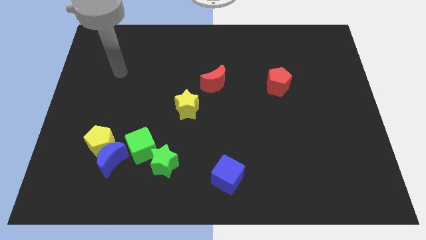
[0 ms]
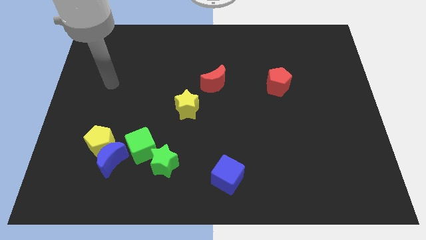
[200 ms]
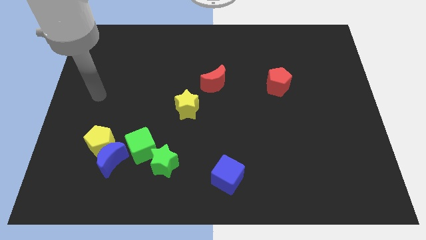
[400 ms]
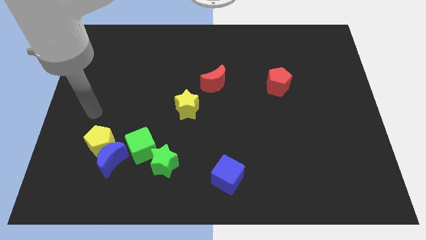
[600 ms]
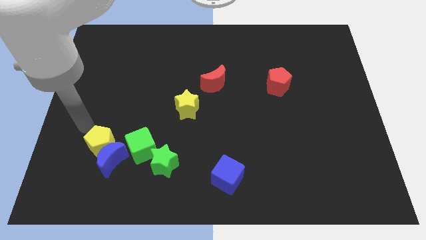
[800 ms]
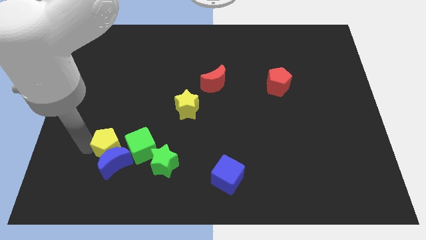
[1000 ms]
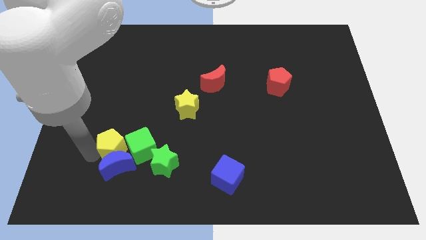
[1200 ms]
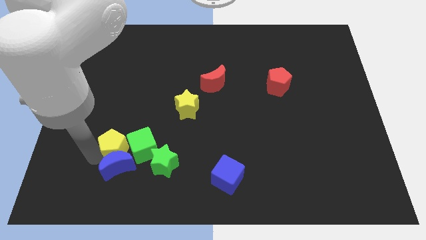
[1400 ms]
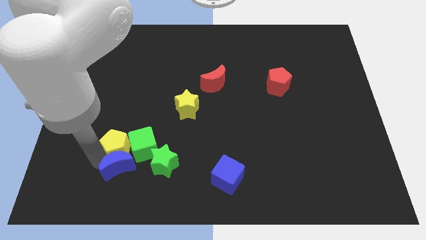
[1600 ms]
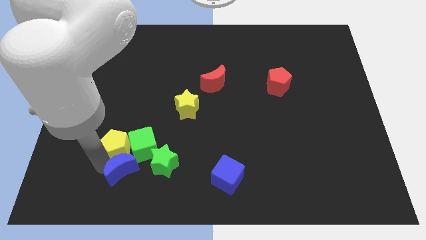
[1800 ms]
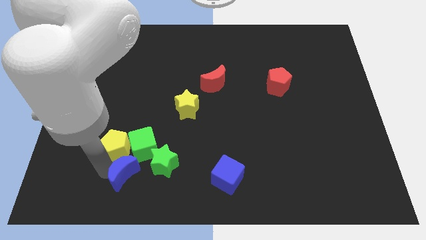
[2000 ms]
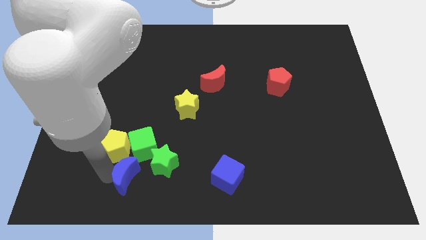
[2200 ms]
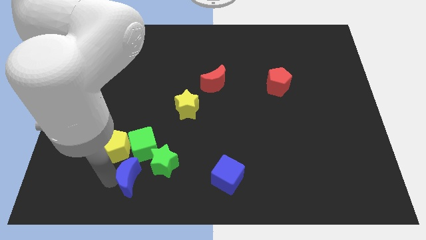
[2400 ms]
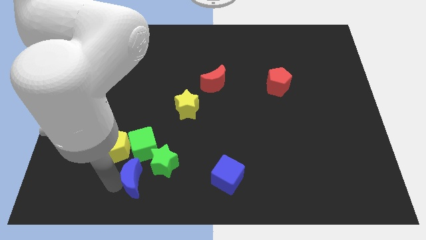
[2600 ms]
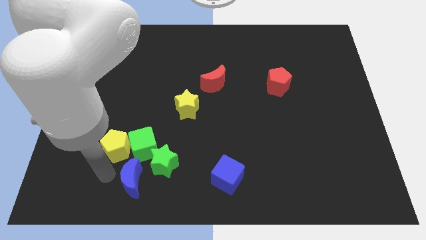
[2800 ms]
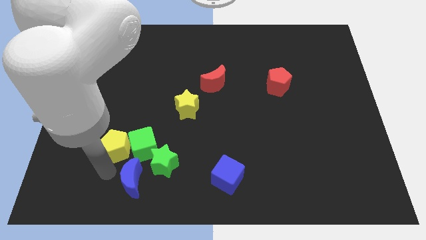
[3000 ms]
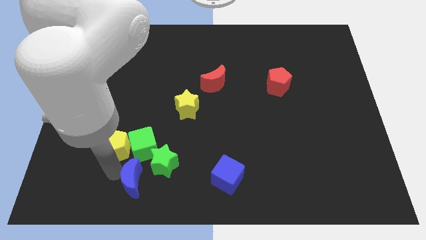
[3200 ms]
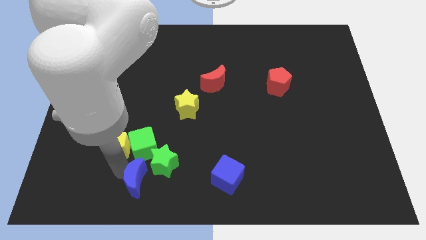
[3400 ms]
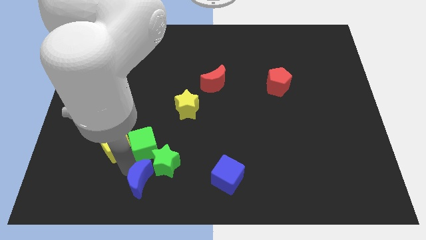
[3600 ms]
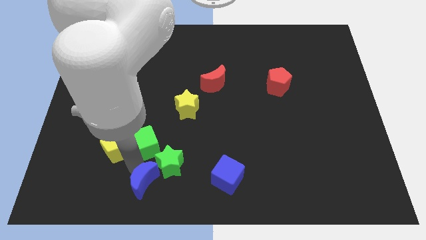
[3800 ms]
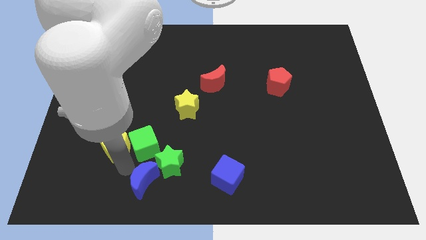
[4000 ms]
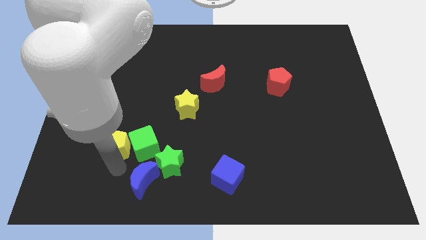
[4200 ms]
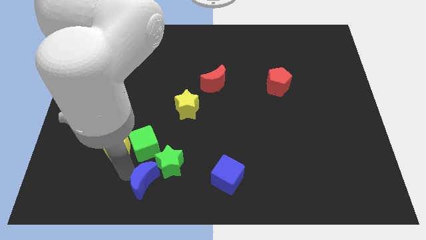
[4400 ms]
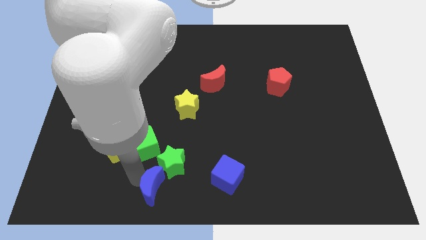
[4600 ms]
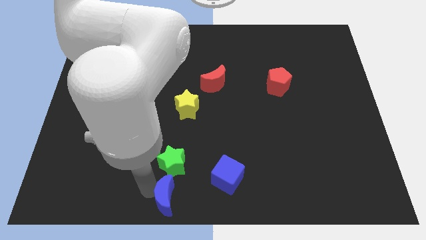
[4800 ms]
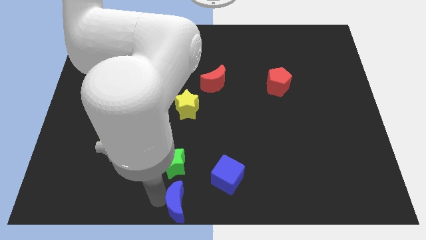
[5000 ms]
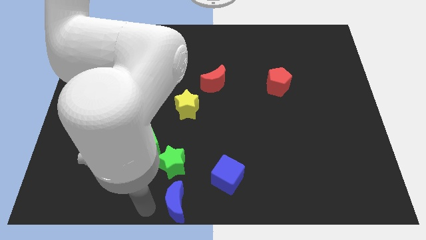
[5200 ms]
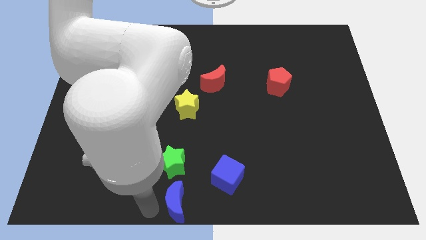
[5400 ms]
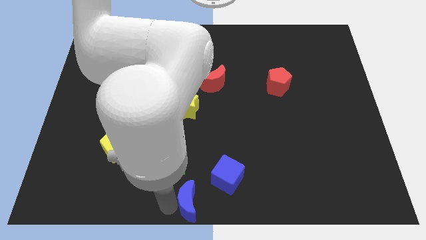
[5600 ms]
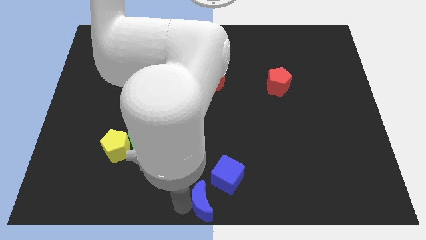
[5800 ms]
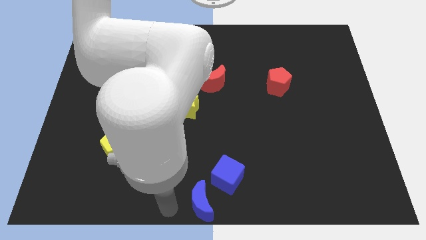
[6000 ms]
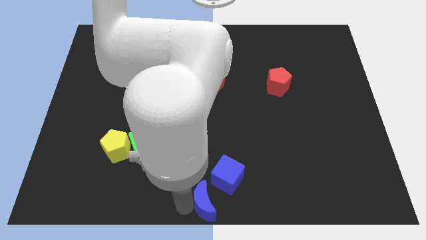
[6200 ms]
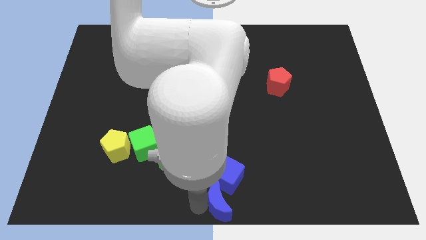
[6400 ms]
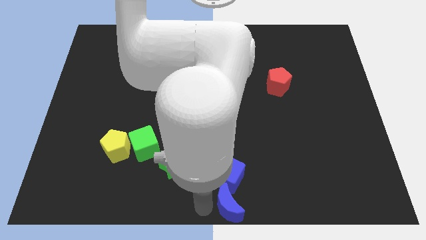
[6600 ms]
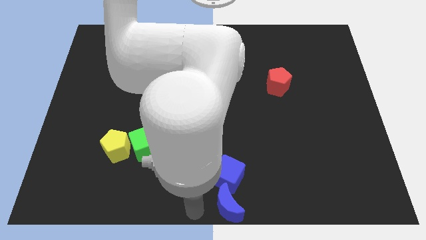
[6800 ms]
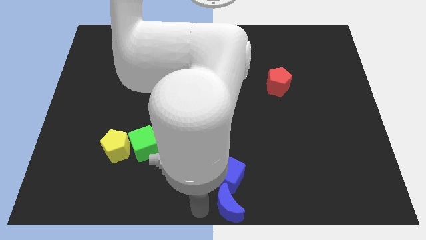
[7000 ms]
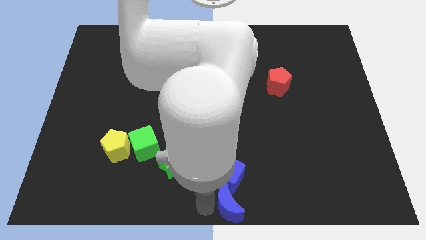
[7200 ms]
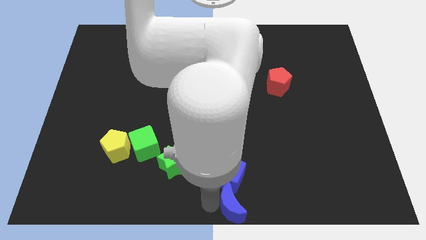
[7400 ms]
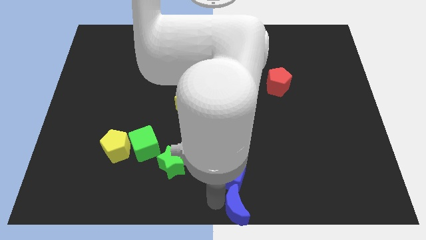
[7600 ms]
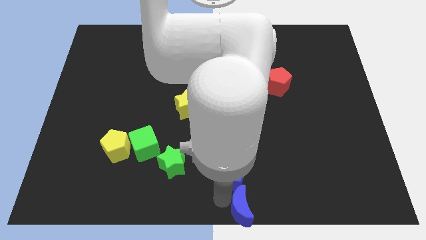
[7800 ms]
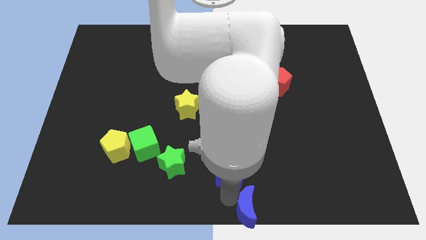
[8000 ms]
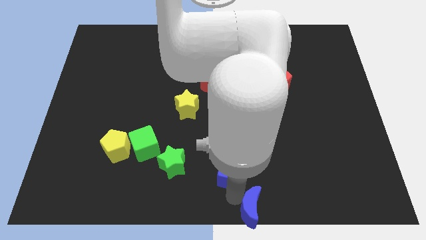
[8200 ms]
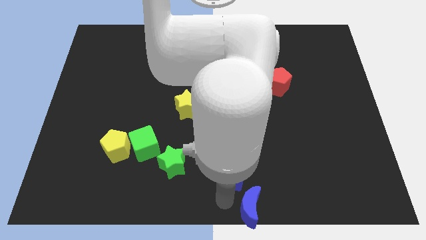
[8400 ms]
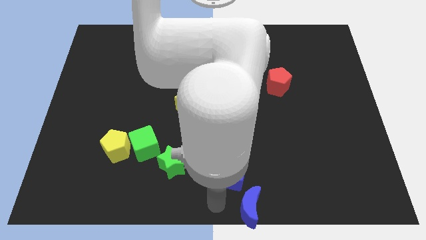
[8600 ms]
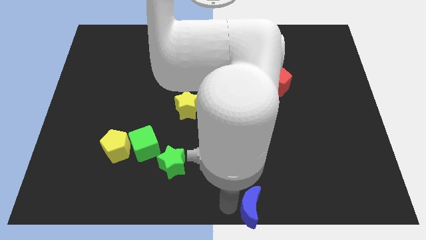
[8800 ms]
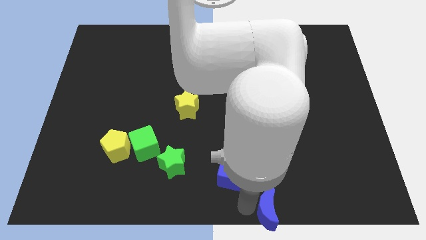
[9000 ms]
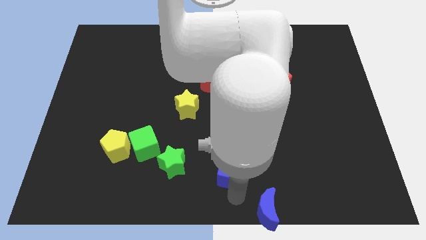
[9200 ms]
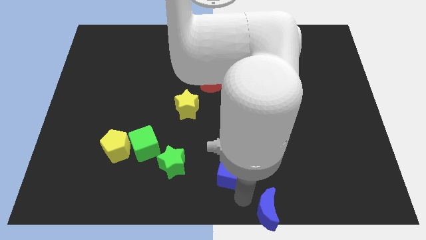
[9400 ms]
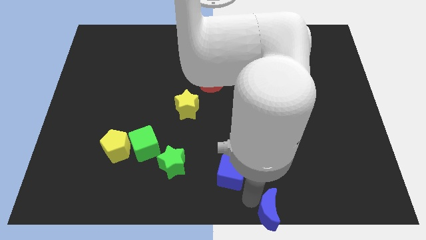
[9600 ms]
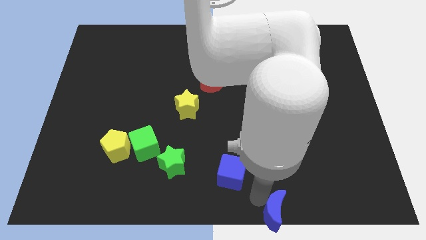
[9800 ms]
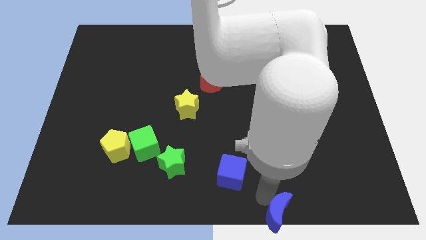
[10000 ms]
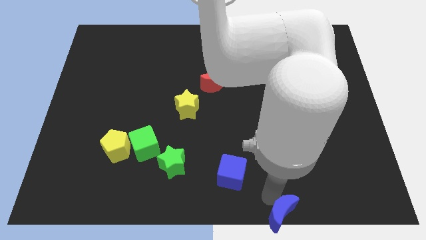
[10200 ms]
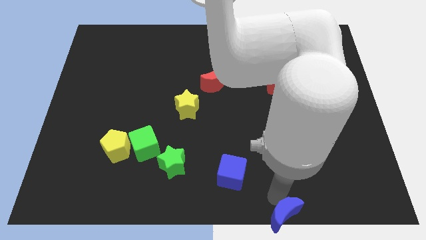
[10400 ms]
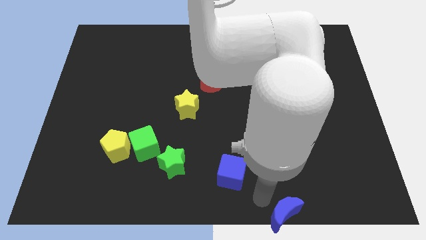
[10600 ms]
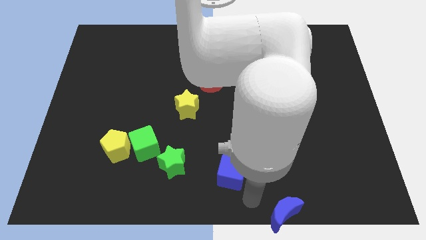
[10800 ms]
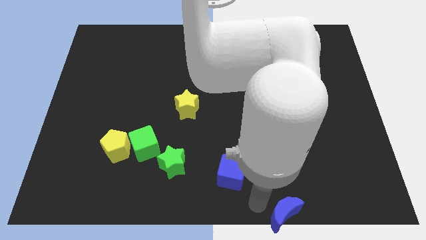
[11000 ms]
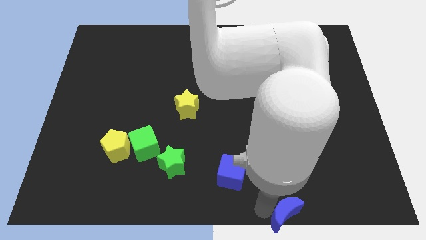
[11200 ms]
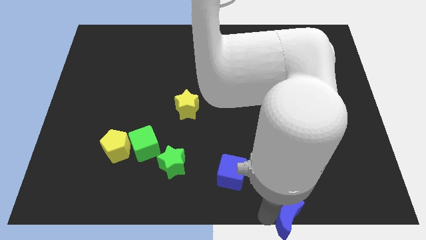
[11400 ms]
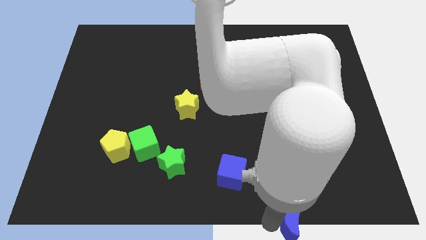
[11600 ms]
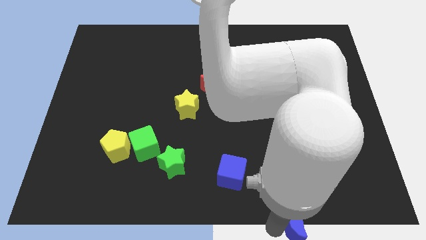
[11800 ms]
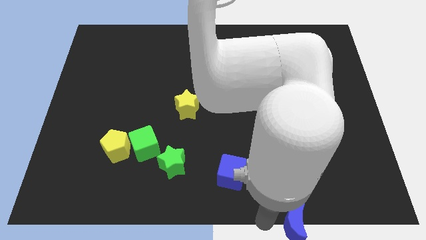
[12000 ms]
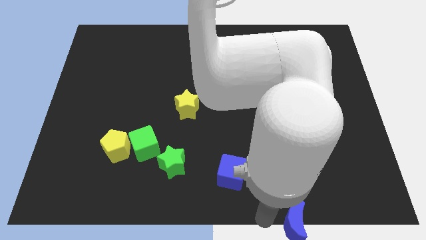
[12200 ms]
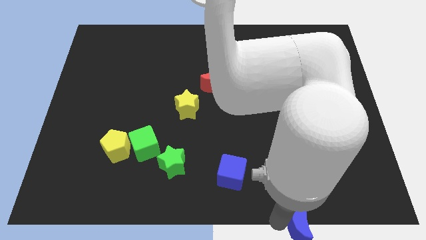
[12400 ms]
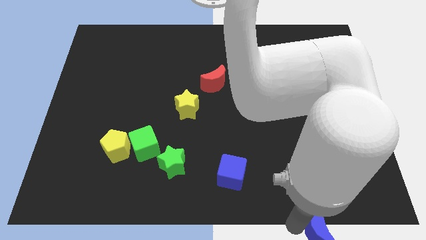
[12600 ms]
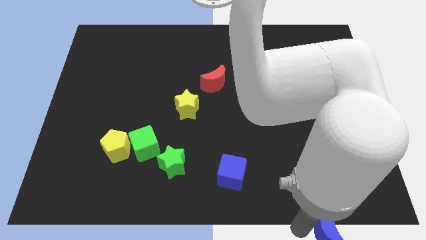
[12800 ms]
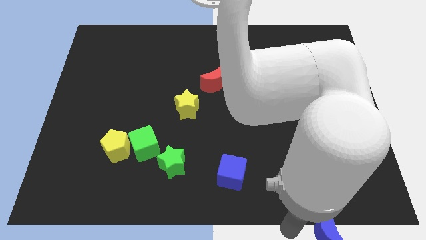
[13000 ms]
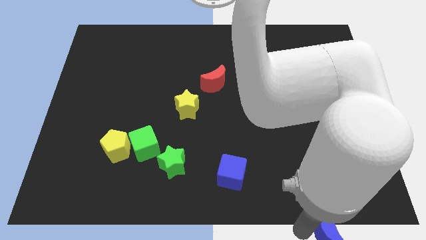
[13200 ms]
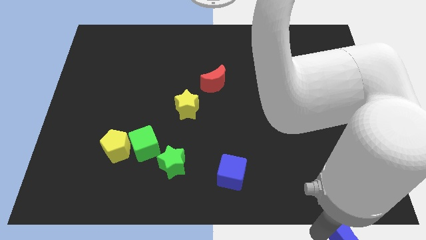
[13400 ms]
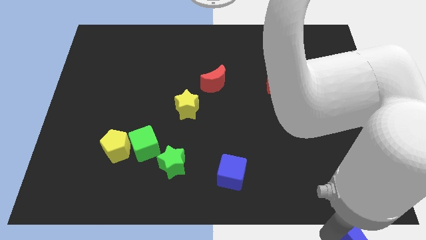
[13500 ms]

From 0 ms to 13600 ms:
move the blue moon to the lower right corner
